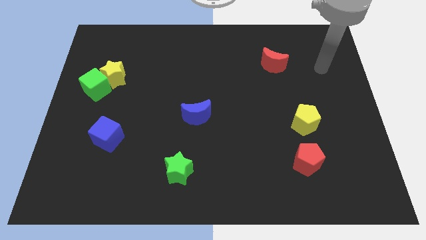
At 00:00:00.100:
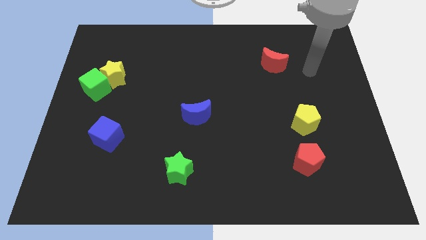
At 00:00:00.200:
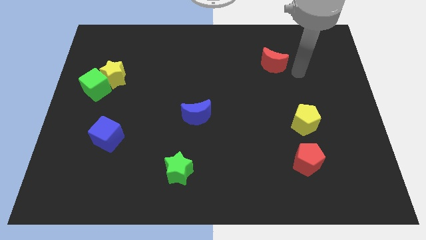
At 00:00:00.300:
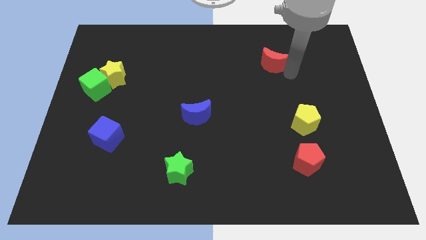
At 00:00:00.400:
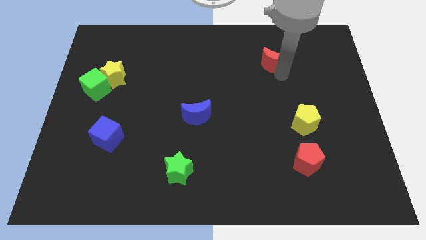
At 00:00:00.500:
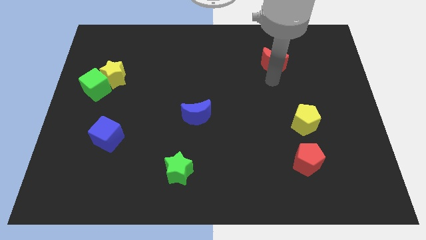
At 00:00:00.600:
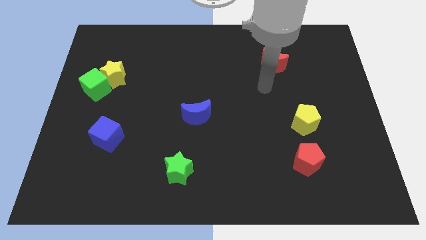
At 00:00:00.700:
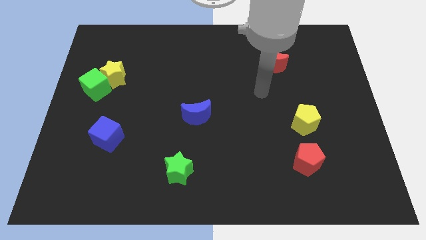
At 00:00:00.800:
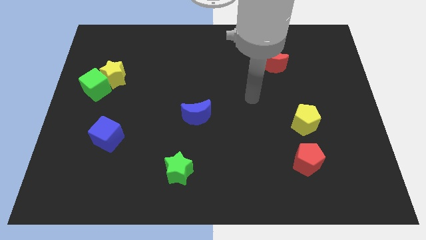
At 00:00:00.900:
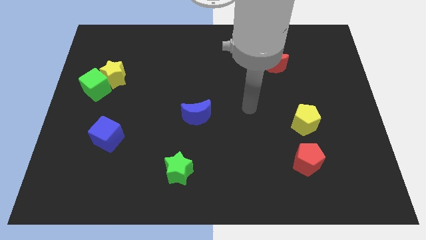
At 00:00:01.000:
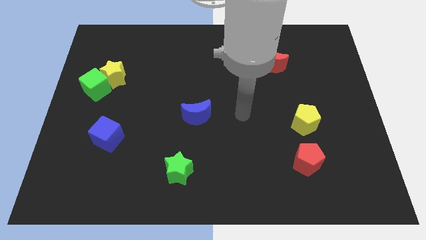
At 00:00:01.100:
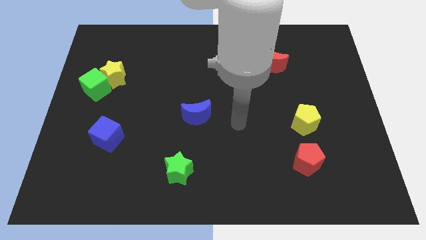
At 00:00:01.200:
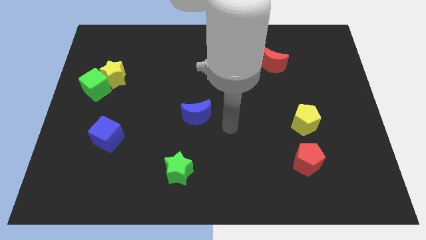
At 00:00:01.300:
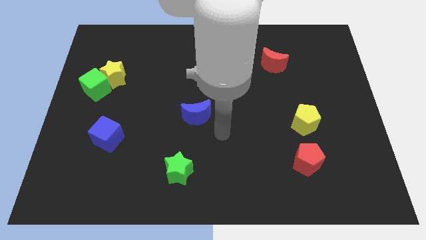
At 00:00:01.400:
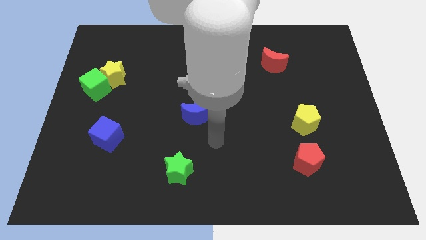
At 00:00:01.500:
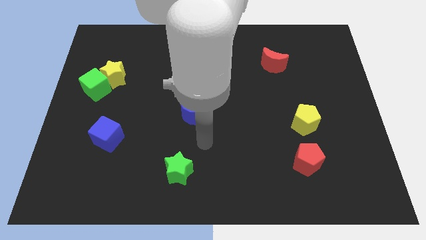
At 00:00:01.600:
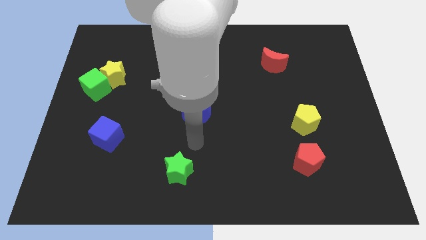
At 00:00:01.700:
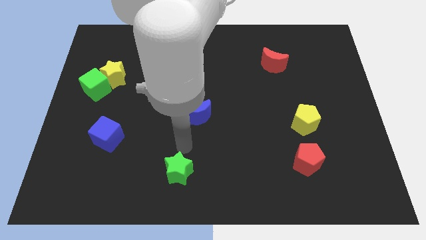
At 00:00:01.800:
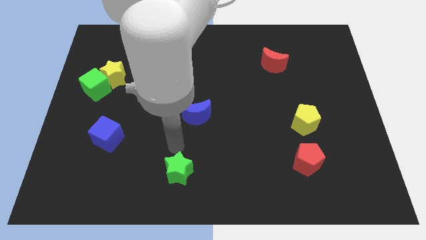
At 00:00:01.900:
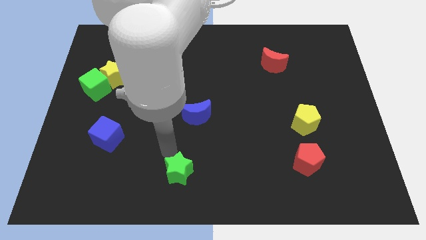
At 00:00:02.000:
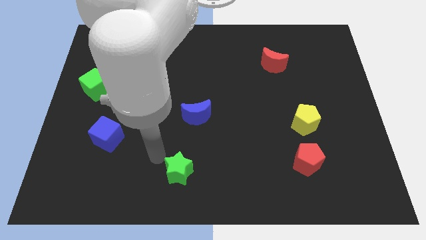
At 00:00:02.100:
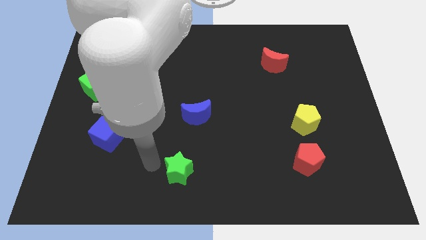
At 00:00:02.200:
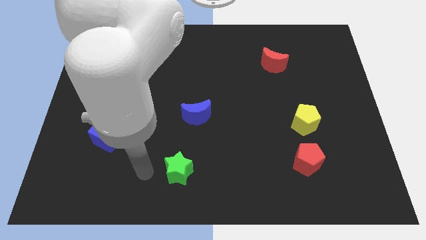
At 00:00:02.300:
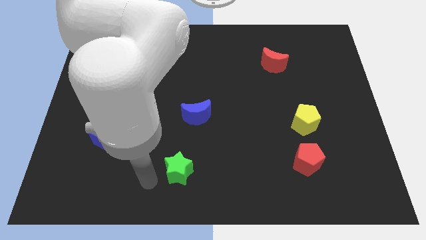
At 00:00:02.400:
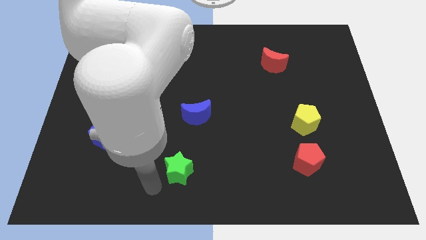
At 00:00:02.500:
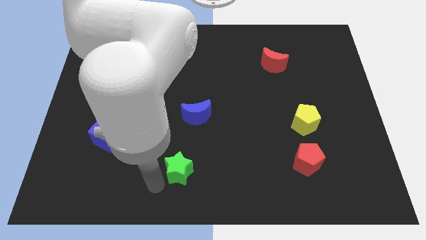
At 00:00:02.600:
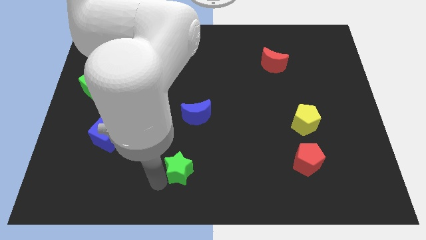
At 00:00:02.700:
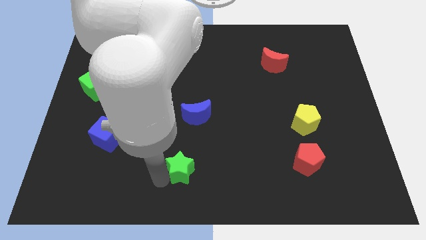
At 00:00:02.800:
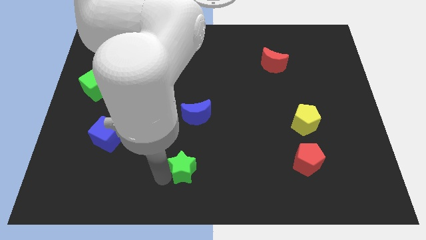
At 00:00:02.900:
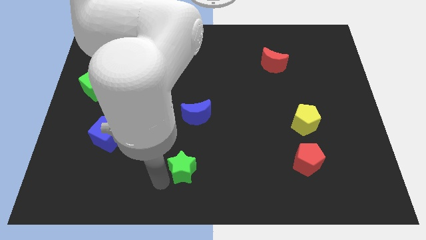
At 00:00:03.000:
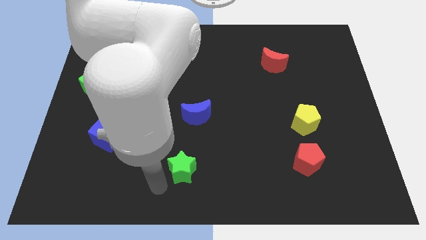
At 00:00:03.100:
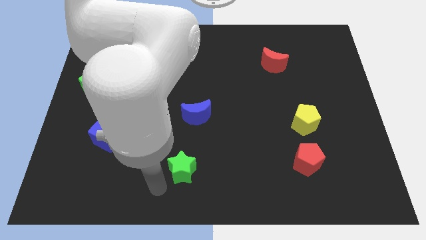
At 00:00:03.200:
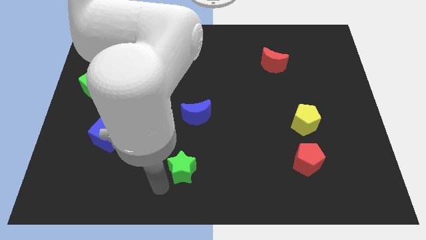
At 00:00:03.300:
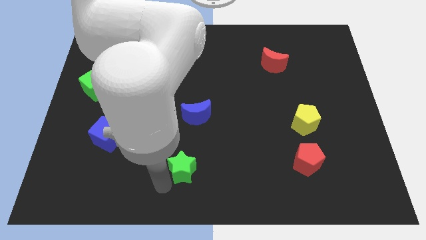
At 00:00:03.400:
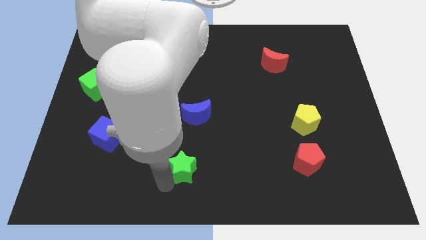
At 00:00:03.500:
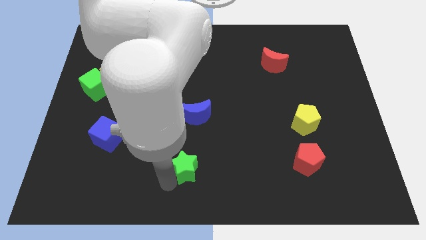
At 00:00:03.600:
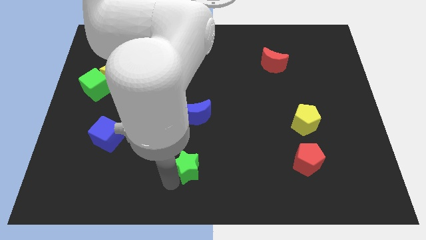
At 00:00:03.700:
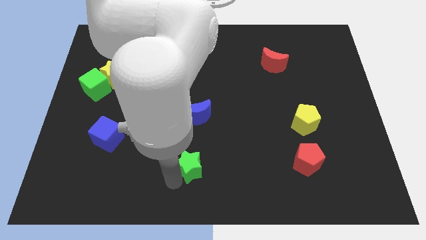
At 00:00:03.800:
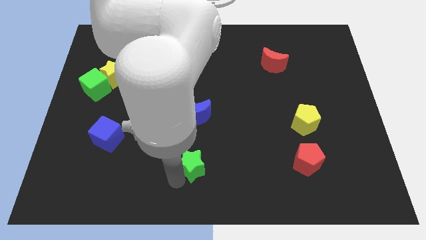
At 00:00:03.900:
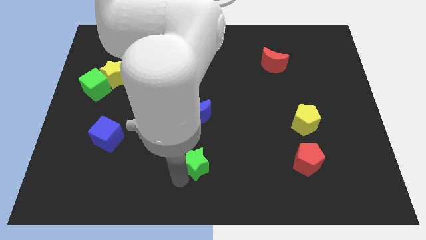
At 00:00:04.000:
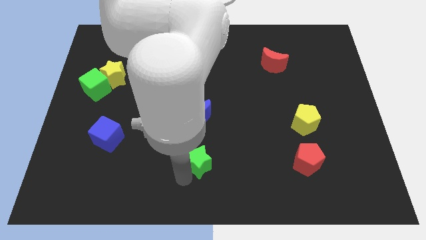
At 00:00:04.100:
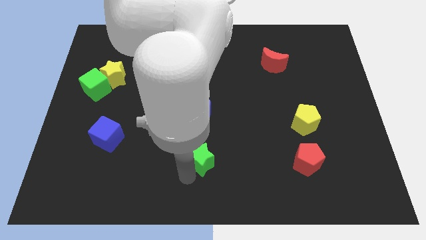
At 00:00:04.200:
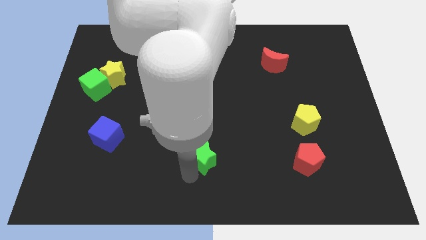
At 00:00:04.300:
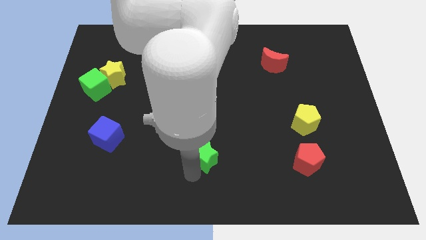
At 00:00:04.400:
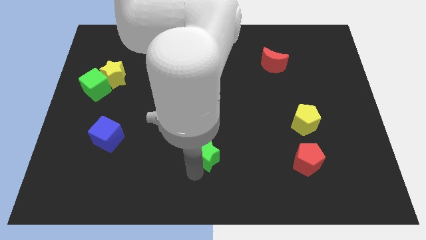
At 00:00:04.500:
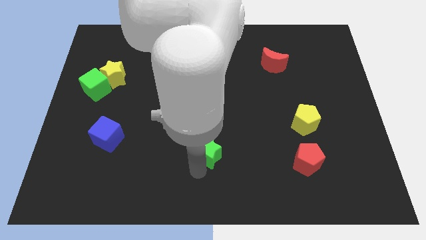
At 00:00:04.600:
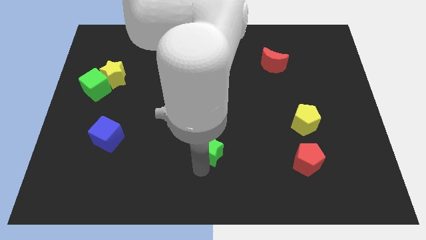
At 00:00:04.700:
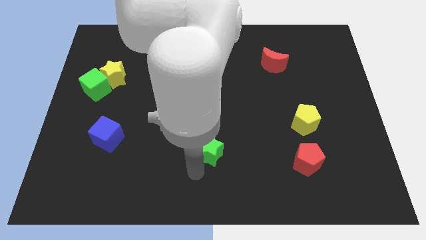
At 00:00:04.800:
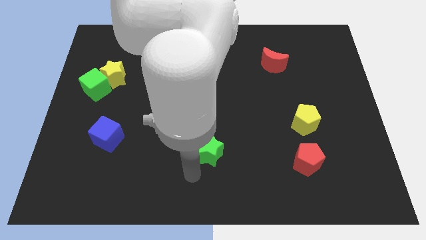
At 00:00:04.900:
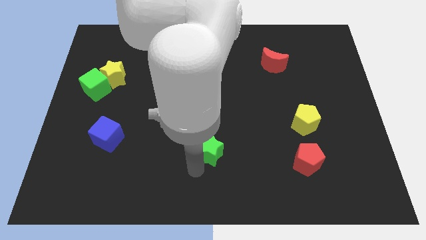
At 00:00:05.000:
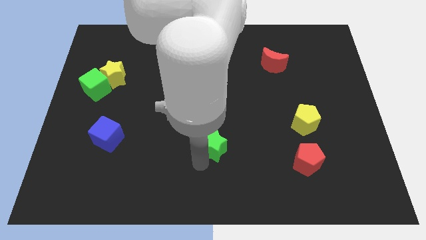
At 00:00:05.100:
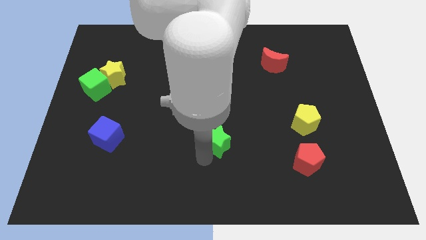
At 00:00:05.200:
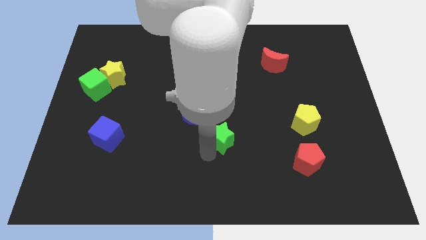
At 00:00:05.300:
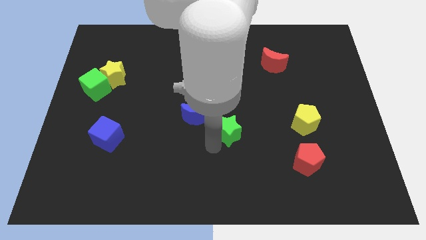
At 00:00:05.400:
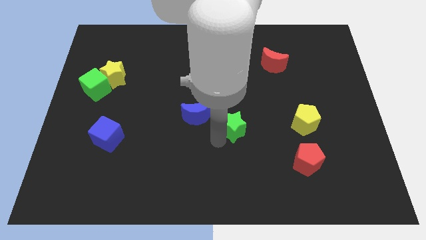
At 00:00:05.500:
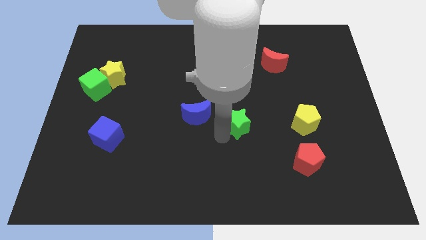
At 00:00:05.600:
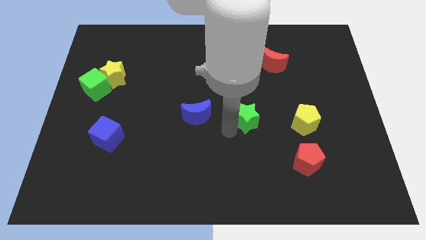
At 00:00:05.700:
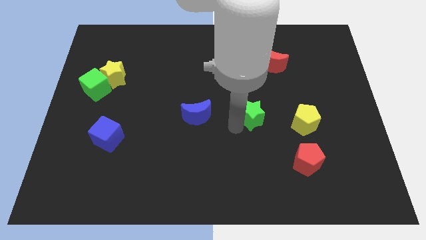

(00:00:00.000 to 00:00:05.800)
slide the green star upwards and to the right diagonally

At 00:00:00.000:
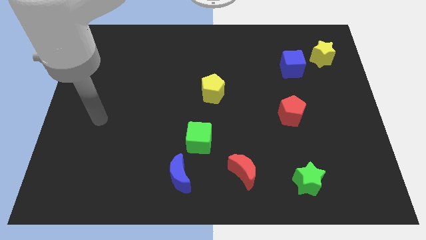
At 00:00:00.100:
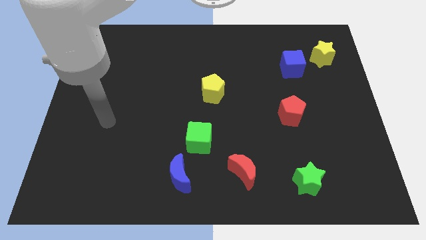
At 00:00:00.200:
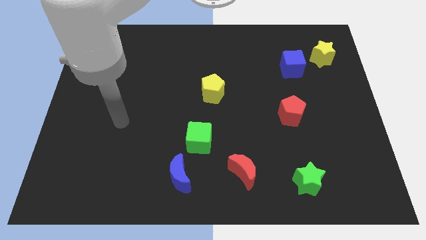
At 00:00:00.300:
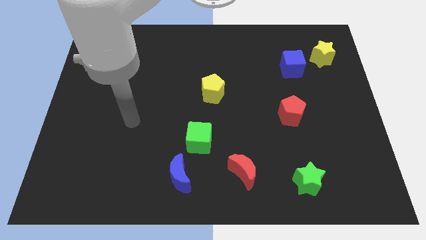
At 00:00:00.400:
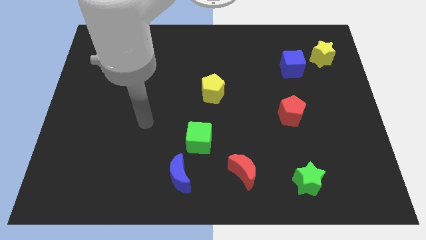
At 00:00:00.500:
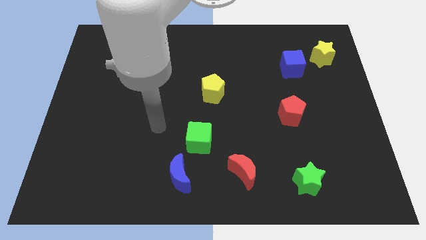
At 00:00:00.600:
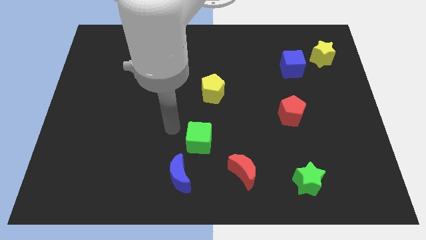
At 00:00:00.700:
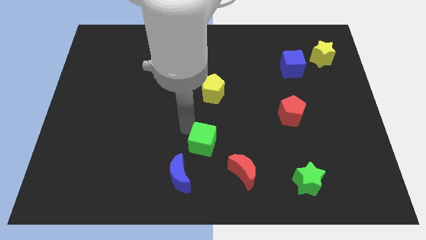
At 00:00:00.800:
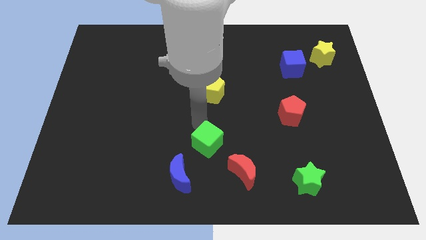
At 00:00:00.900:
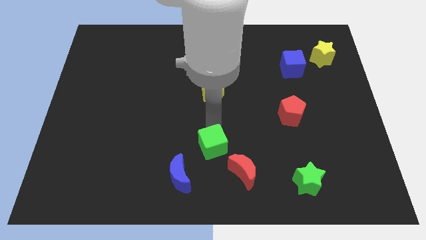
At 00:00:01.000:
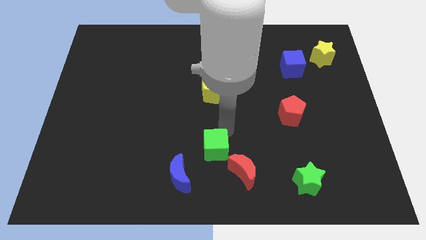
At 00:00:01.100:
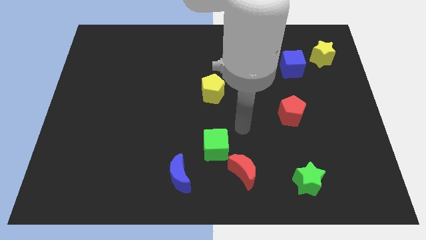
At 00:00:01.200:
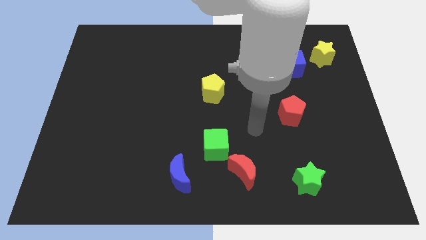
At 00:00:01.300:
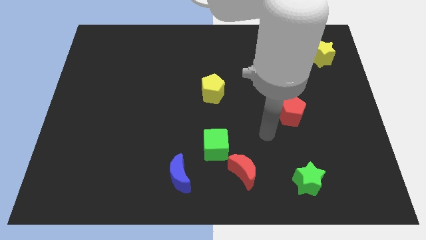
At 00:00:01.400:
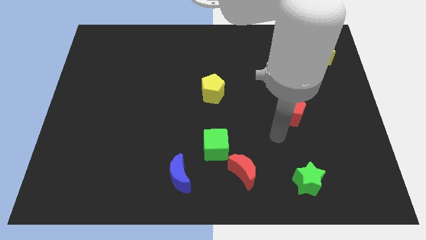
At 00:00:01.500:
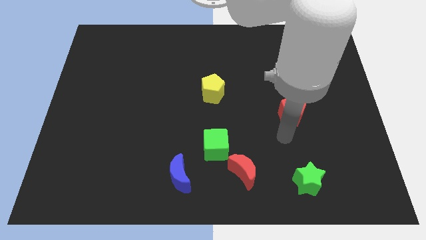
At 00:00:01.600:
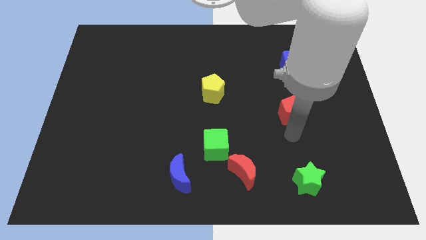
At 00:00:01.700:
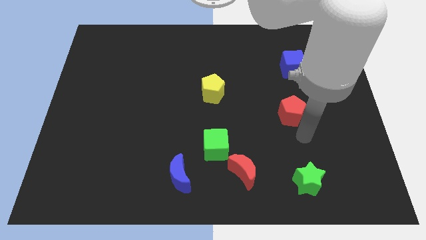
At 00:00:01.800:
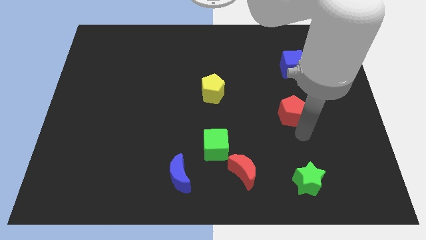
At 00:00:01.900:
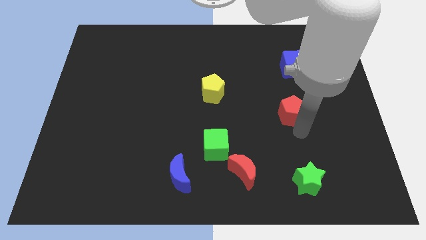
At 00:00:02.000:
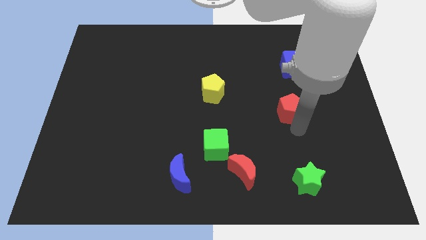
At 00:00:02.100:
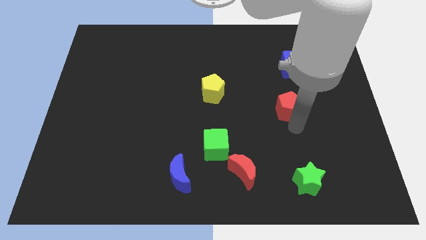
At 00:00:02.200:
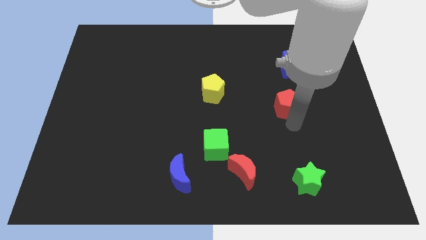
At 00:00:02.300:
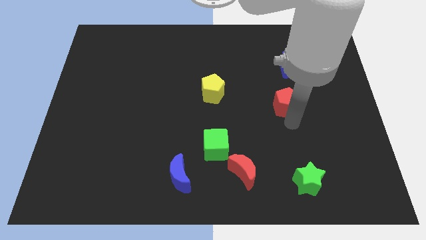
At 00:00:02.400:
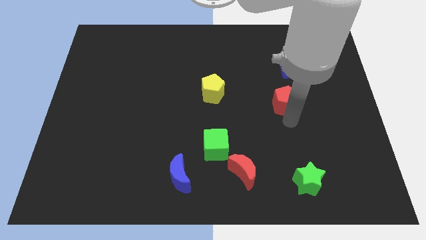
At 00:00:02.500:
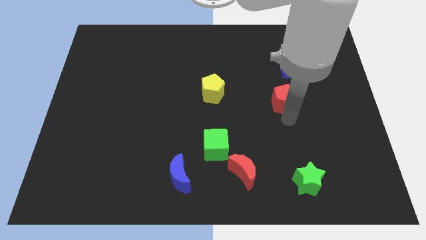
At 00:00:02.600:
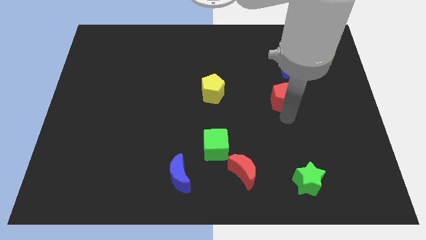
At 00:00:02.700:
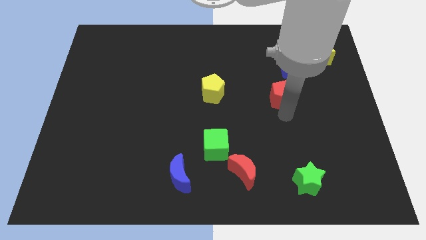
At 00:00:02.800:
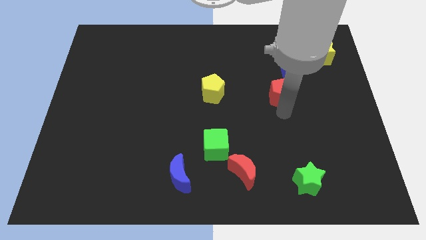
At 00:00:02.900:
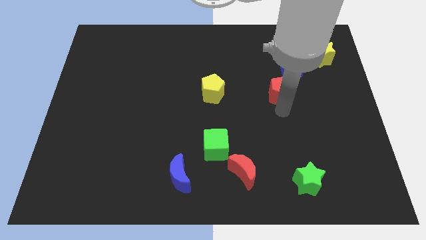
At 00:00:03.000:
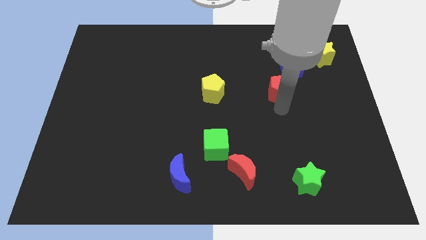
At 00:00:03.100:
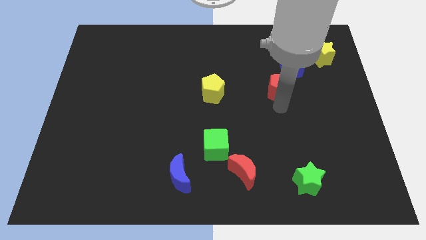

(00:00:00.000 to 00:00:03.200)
slide the red pentagon upwards a little
